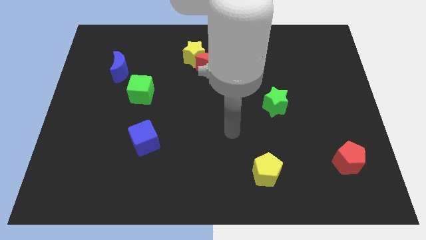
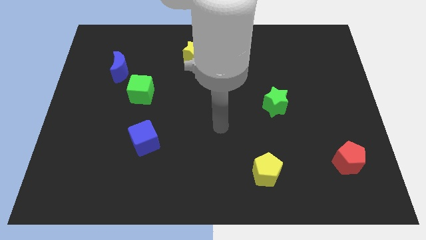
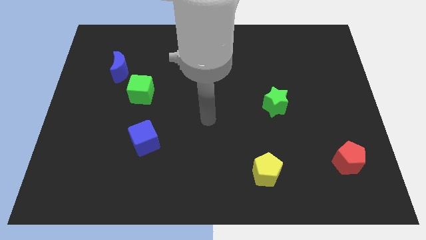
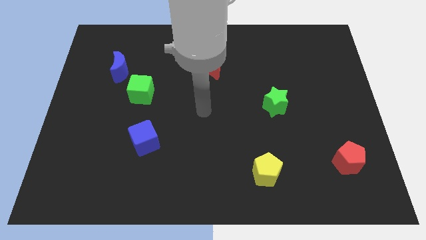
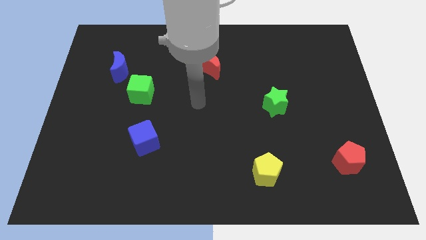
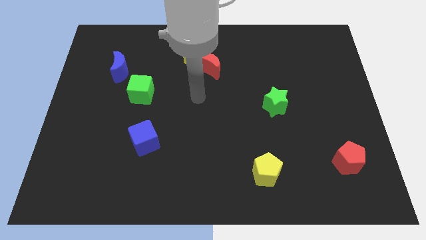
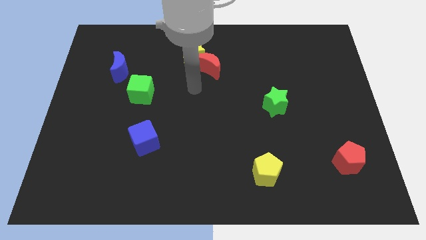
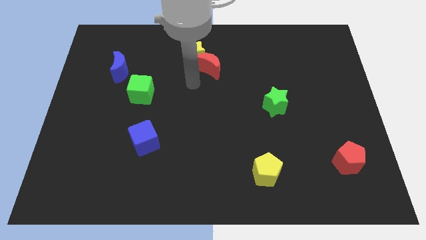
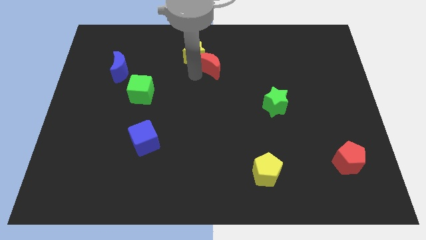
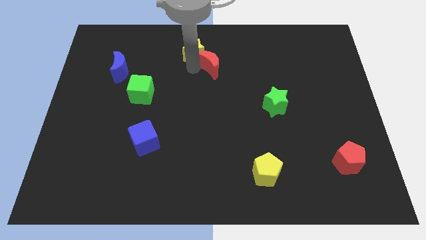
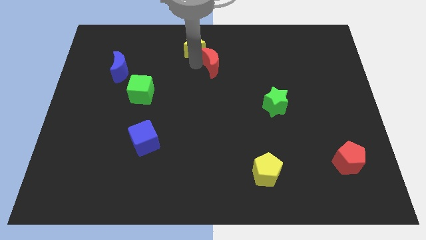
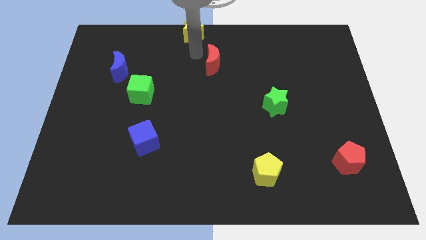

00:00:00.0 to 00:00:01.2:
separate the red moon from the yellow star

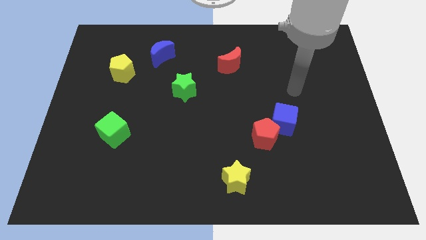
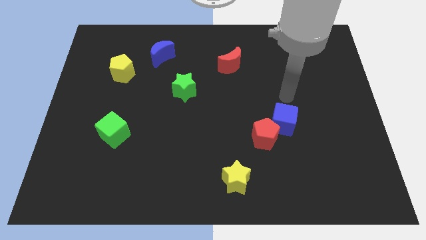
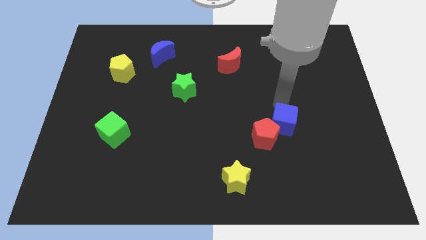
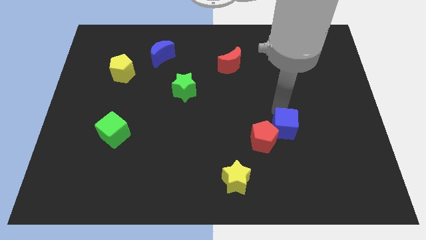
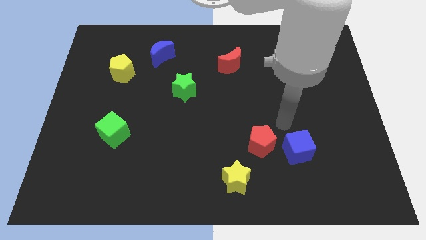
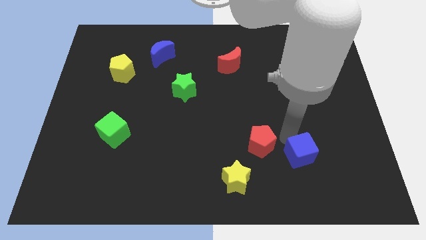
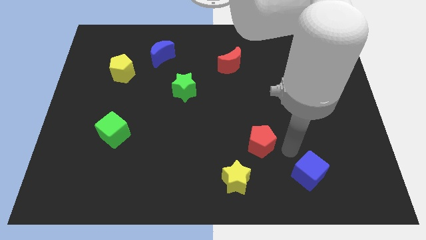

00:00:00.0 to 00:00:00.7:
pull the red pentagon apart from the blue cube

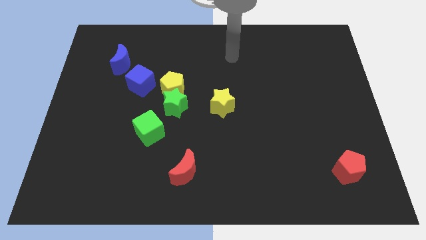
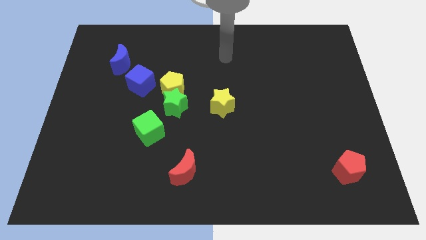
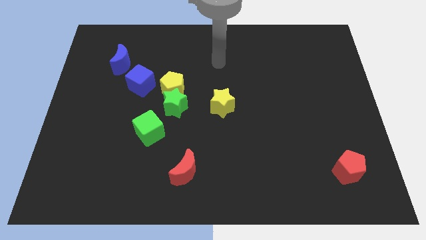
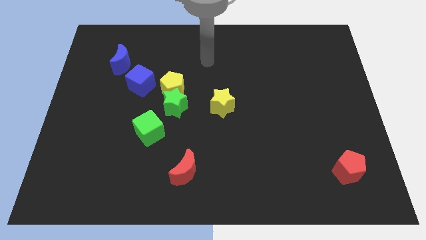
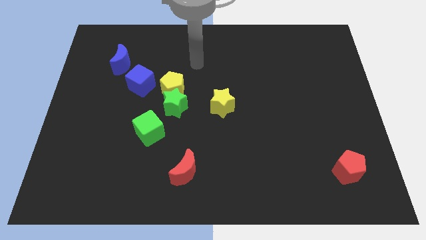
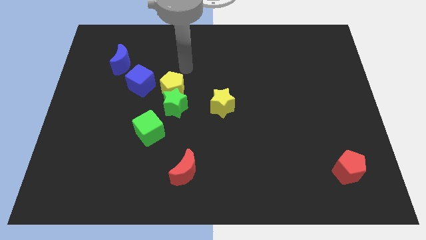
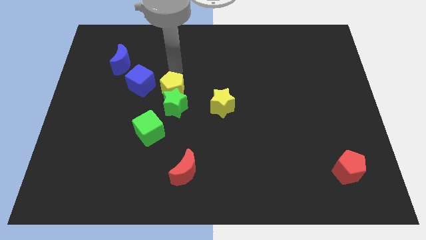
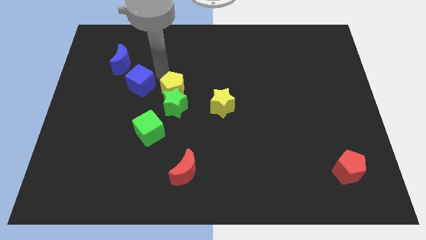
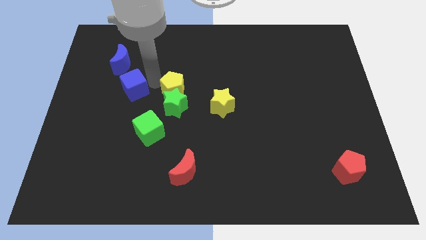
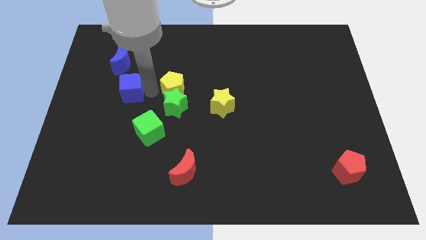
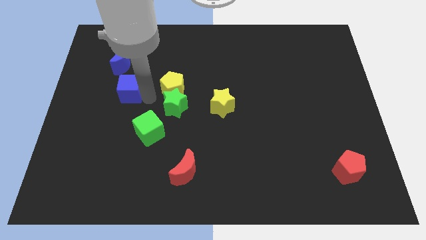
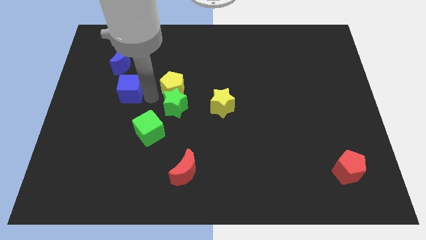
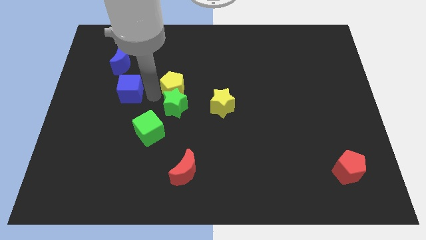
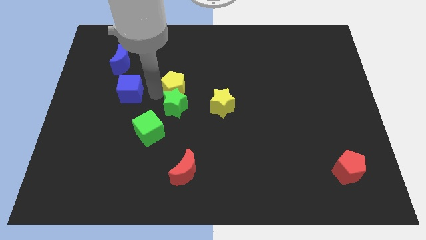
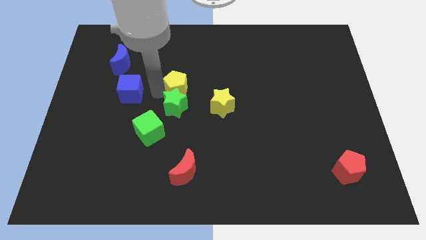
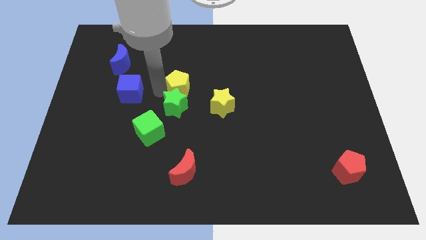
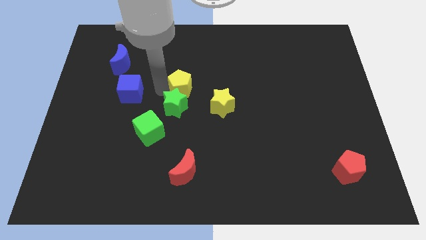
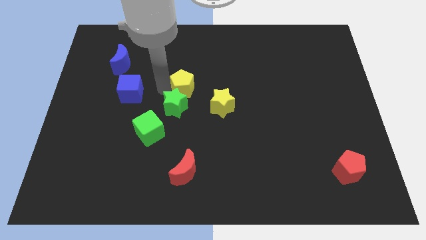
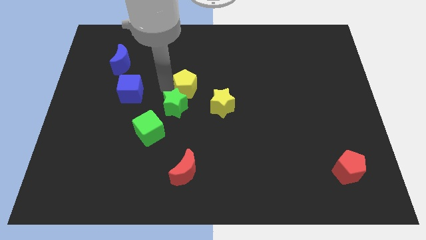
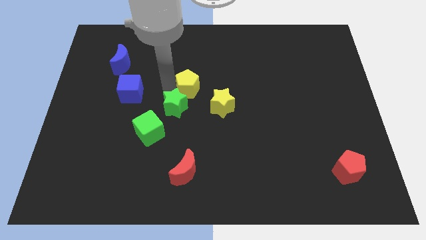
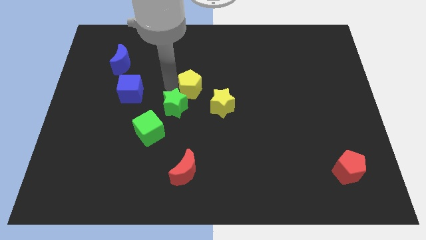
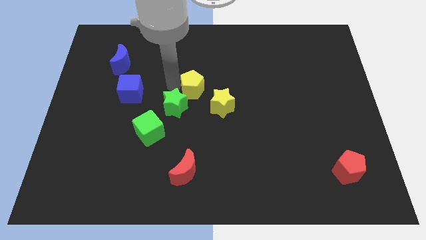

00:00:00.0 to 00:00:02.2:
separate the yellow pentagon from the green star and blue cube

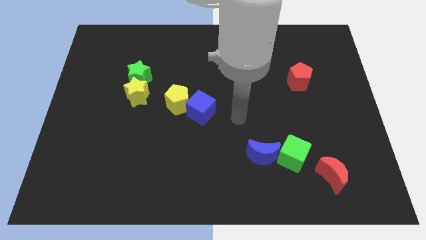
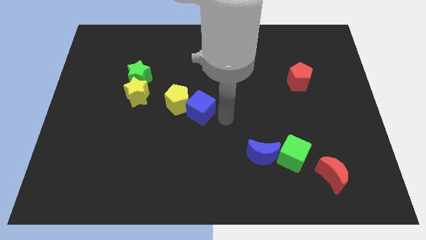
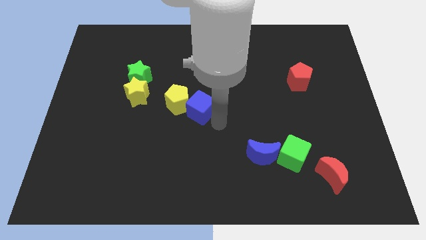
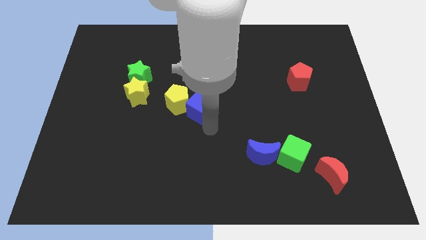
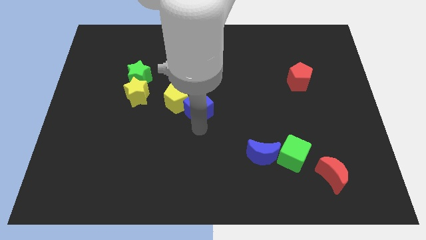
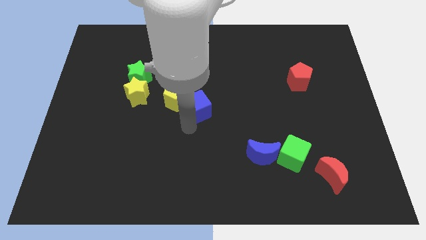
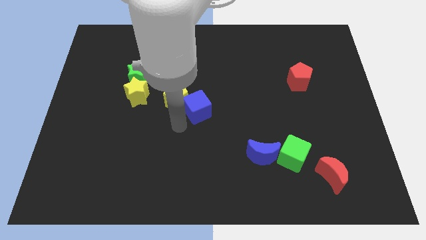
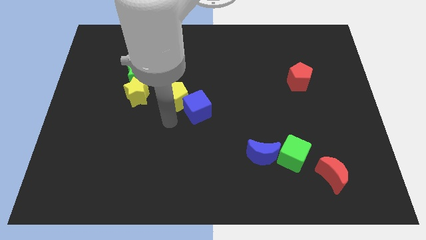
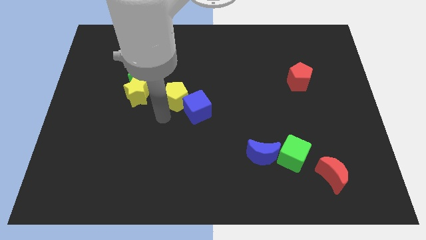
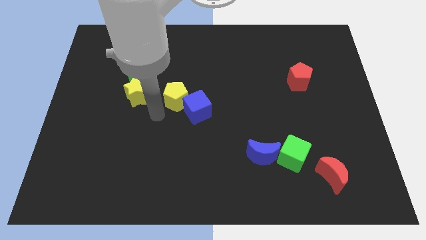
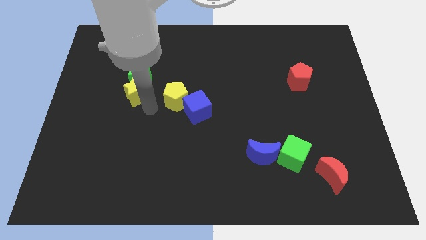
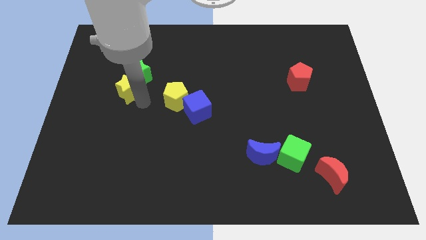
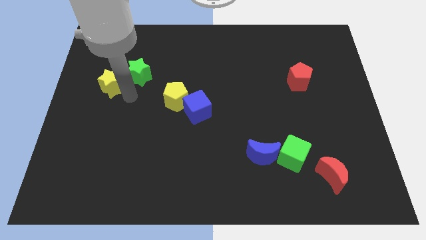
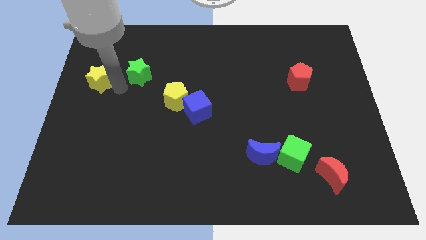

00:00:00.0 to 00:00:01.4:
move the green star away from the yellow star

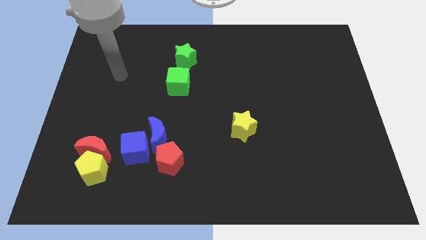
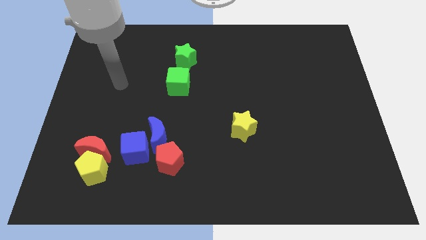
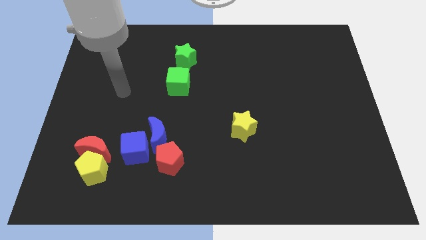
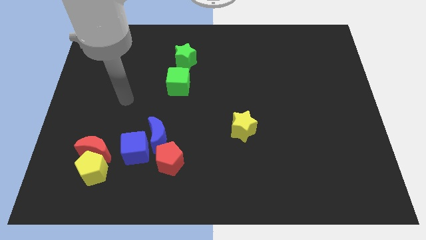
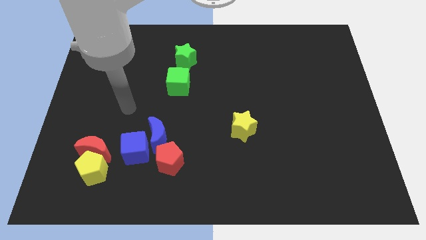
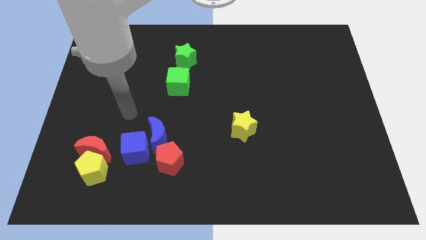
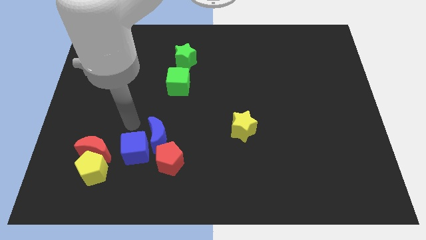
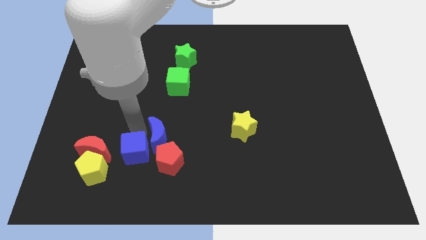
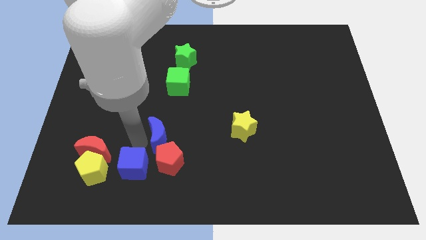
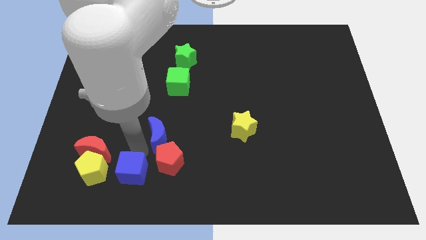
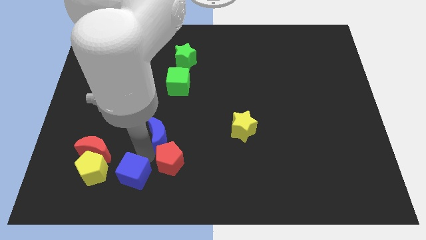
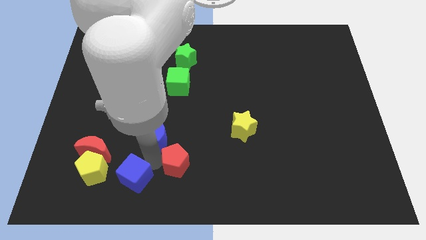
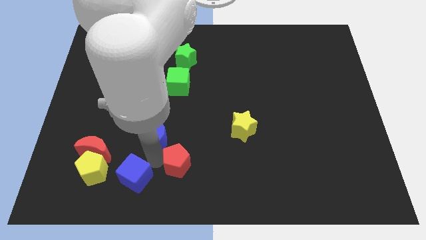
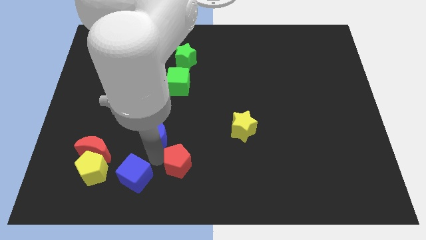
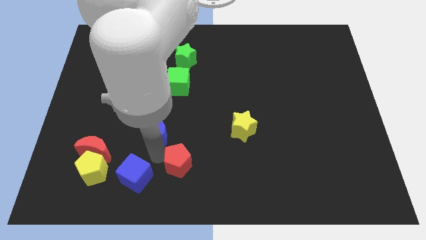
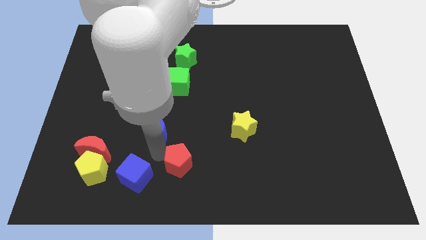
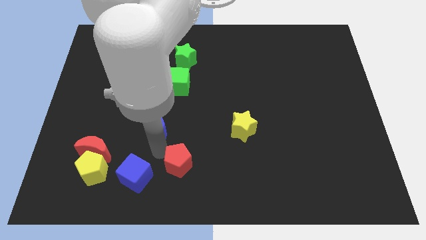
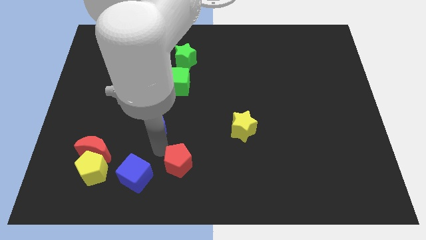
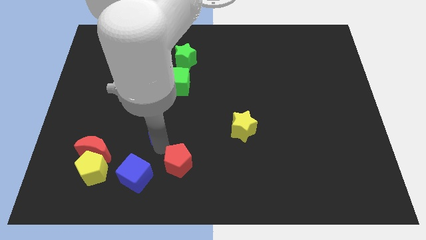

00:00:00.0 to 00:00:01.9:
pull the blue moon apart from the blue cube and red pentagon

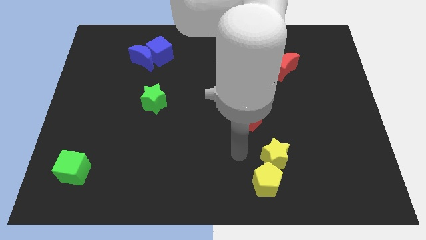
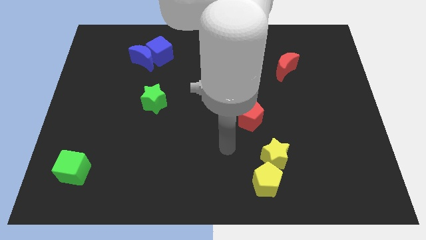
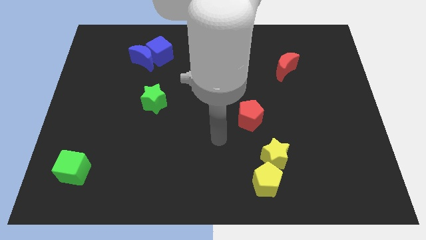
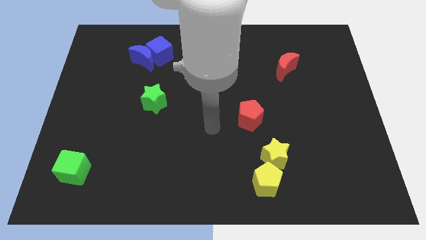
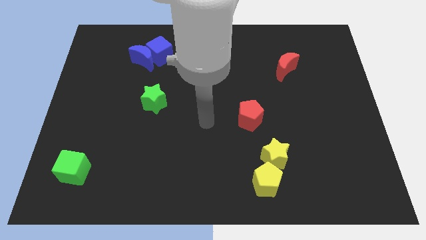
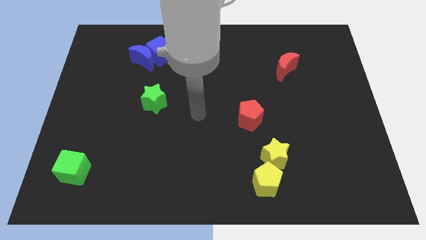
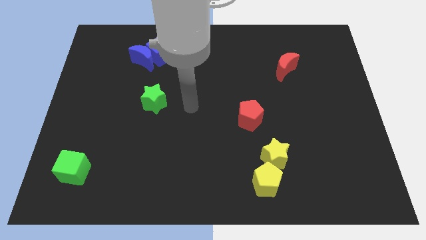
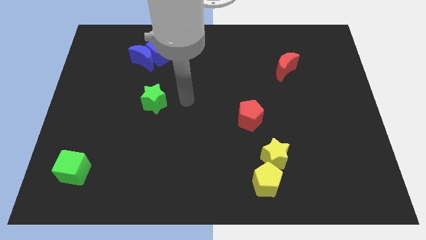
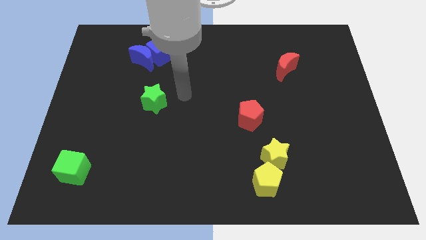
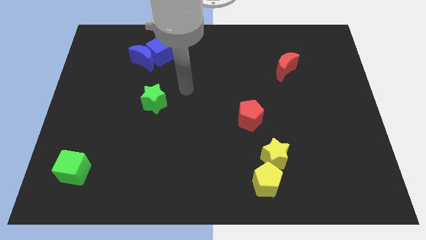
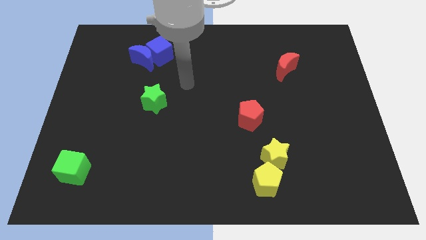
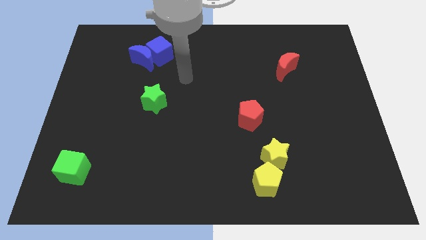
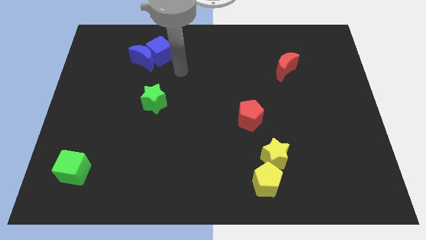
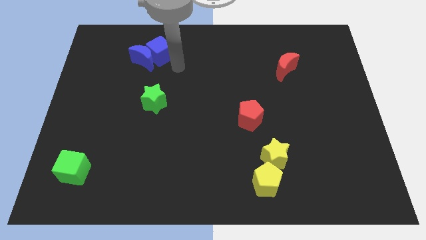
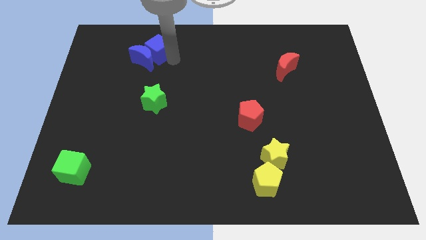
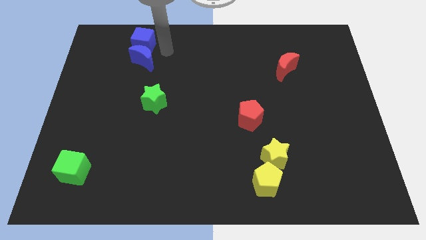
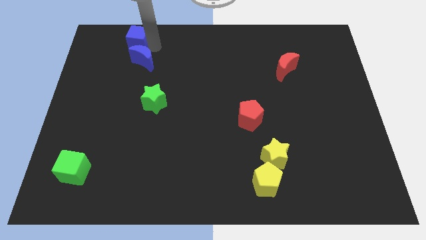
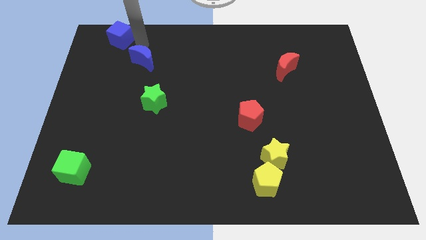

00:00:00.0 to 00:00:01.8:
pull the blue moon apart from the blue cube

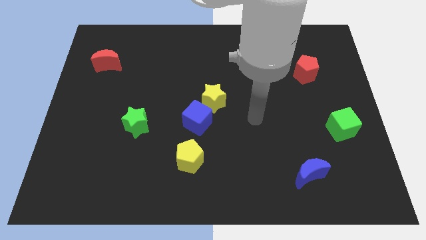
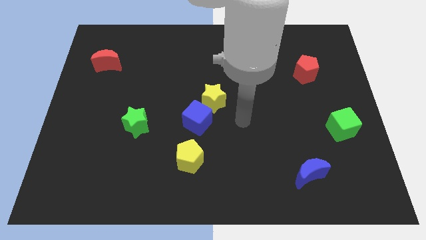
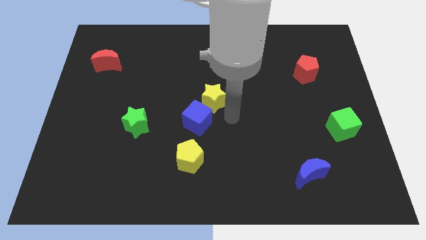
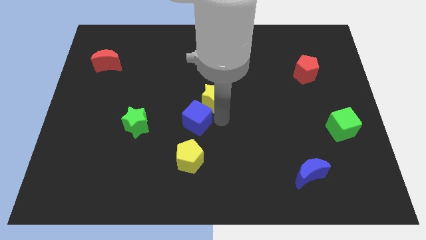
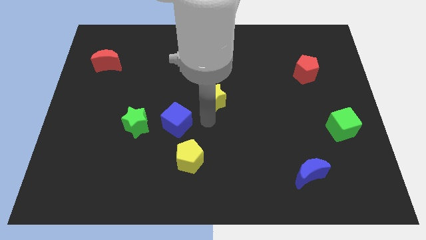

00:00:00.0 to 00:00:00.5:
separate the yellow star from the blue cube
